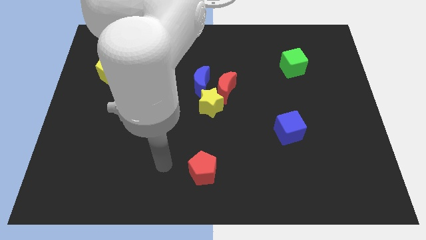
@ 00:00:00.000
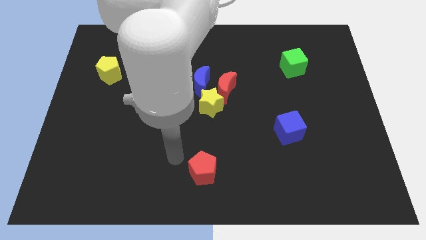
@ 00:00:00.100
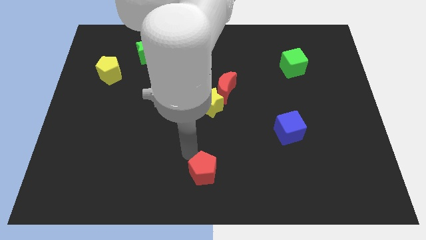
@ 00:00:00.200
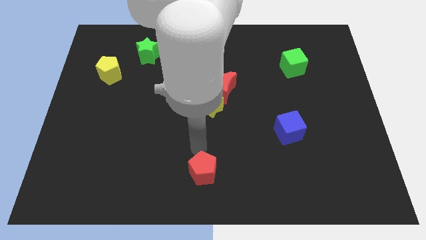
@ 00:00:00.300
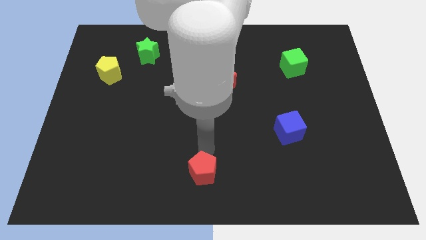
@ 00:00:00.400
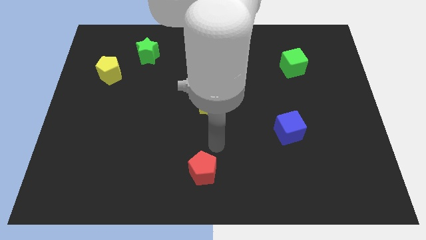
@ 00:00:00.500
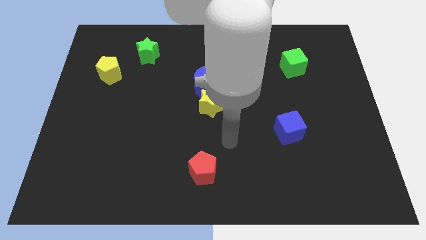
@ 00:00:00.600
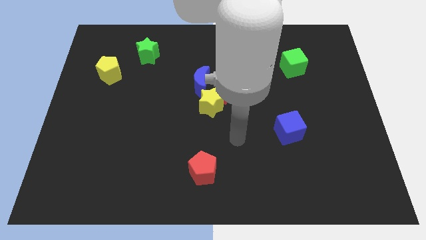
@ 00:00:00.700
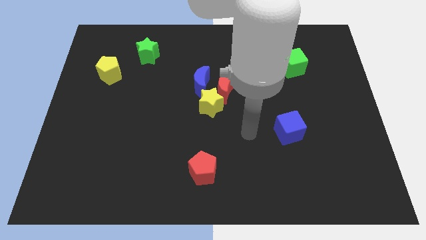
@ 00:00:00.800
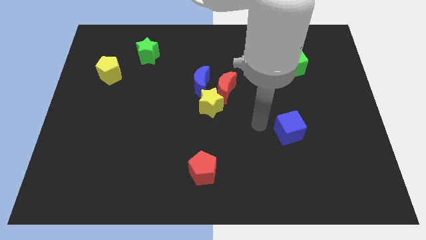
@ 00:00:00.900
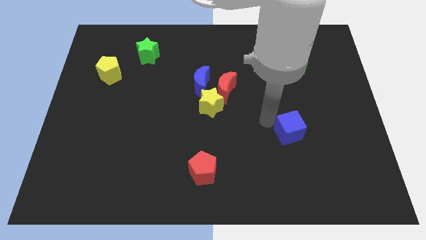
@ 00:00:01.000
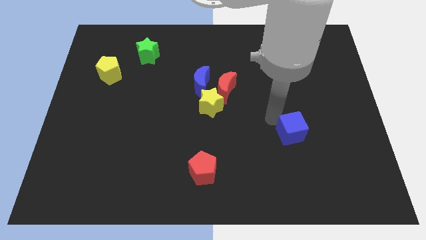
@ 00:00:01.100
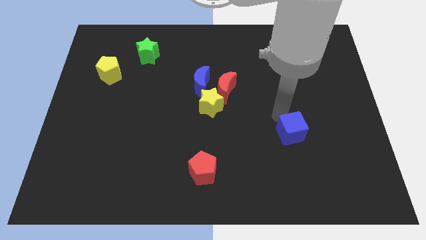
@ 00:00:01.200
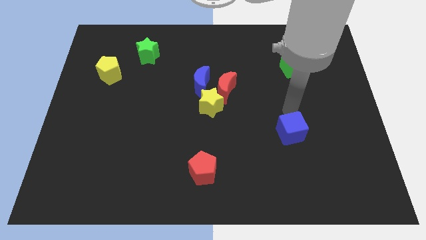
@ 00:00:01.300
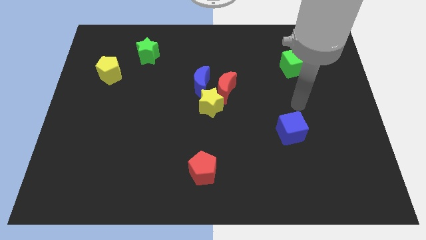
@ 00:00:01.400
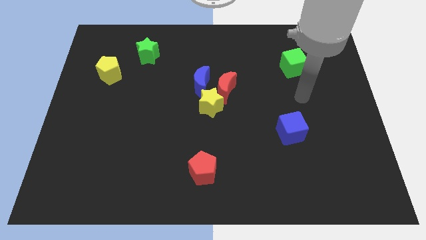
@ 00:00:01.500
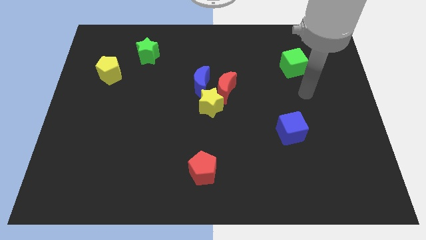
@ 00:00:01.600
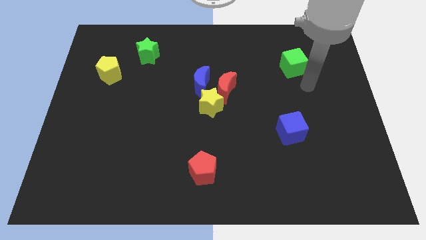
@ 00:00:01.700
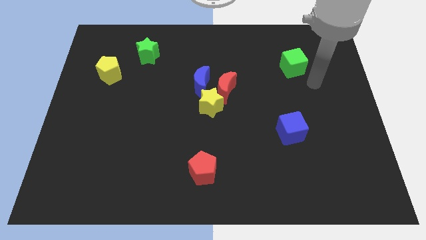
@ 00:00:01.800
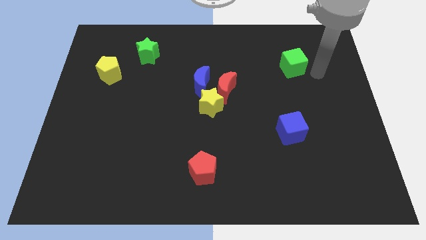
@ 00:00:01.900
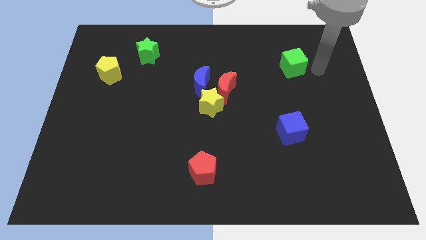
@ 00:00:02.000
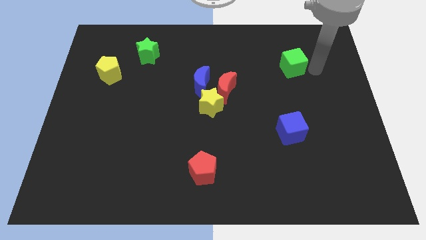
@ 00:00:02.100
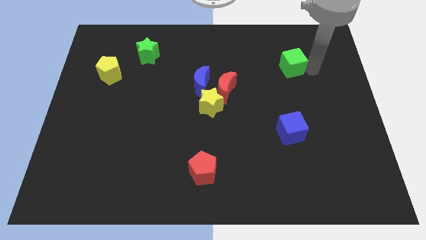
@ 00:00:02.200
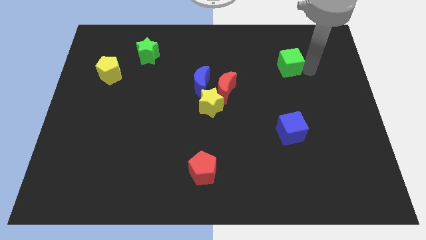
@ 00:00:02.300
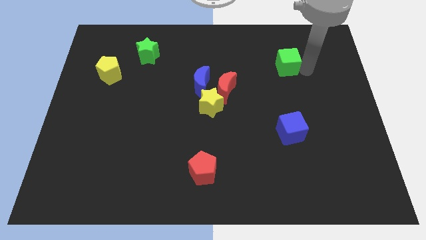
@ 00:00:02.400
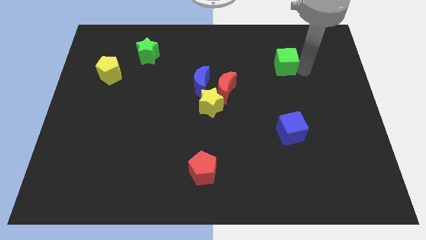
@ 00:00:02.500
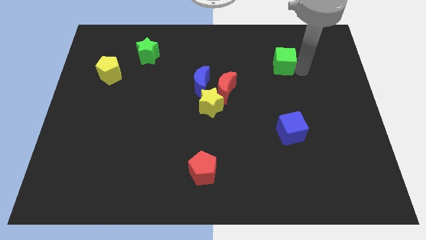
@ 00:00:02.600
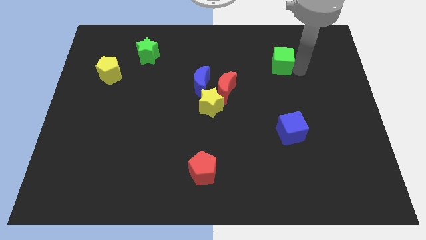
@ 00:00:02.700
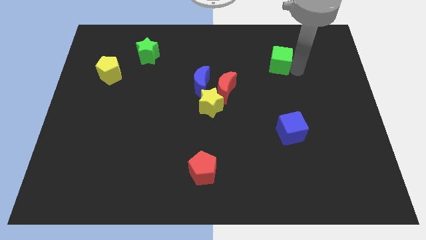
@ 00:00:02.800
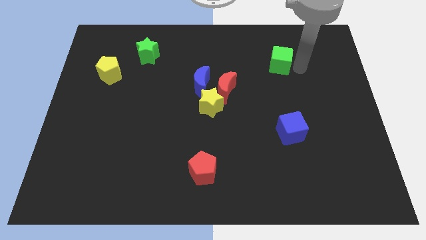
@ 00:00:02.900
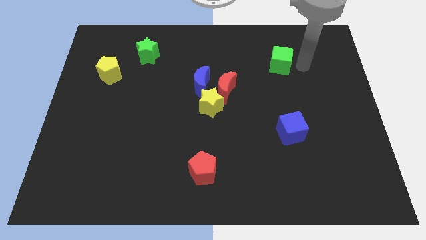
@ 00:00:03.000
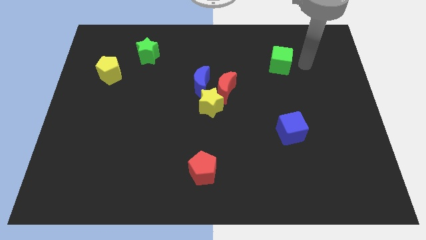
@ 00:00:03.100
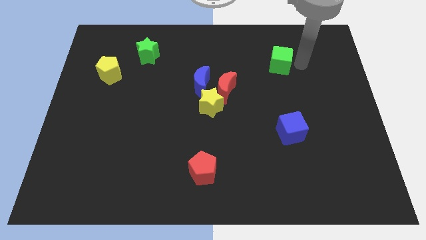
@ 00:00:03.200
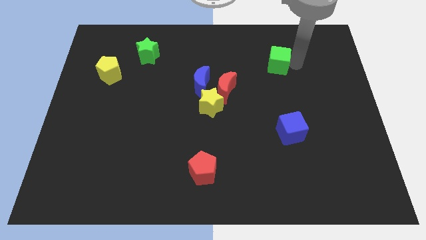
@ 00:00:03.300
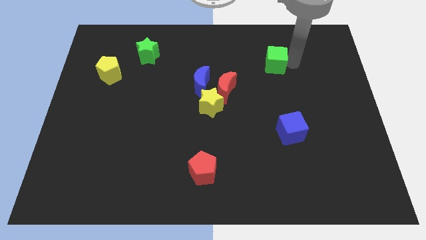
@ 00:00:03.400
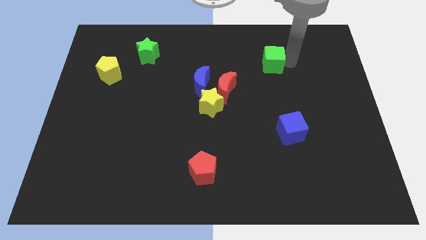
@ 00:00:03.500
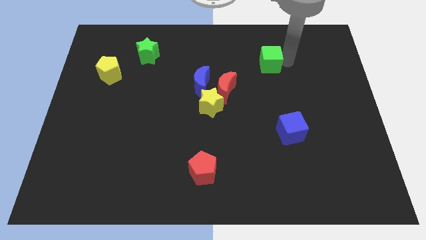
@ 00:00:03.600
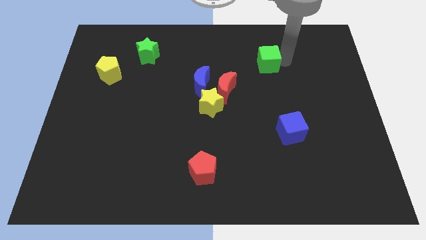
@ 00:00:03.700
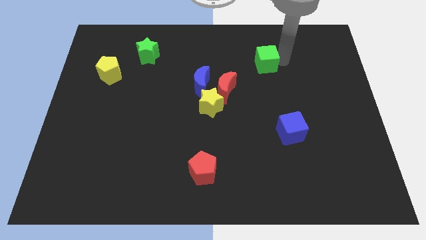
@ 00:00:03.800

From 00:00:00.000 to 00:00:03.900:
push the green cube to the left somewhat

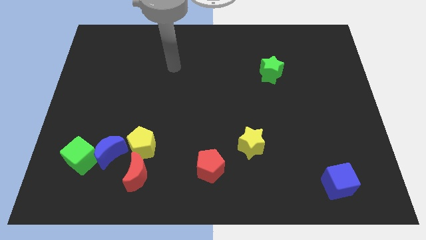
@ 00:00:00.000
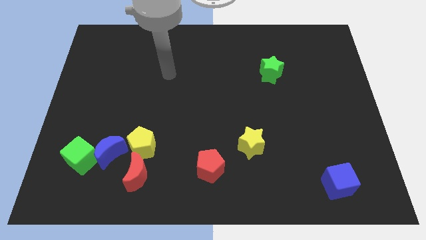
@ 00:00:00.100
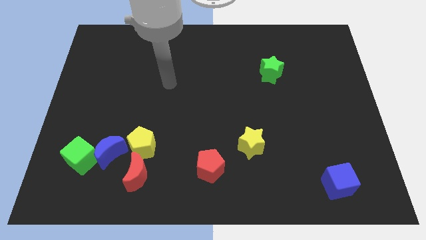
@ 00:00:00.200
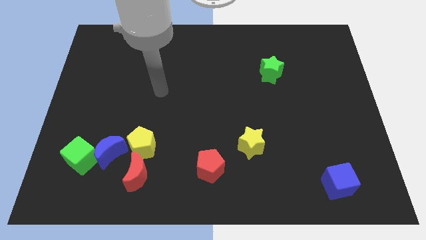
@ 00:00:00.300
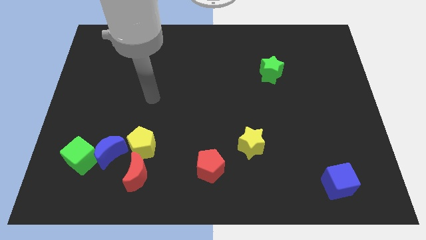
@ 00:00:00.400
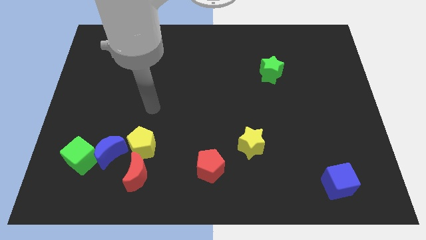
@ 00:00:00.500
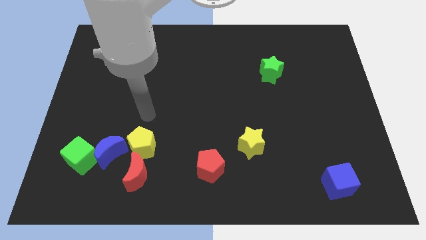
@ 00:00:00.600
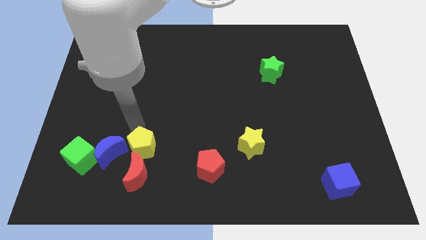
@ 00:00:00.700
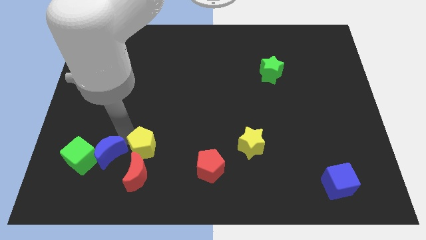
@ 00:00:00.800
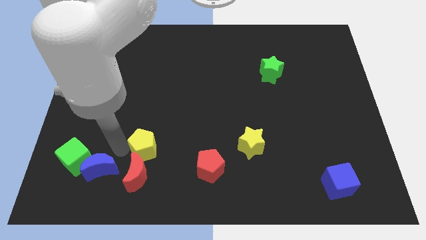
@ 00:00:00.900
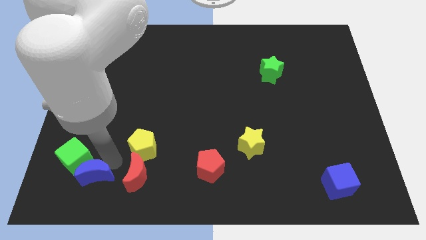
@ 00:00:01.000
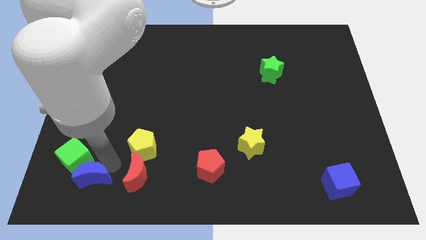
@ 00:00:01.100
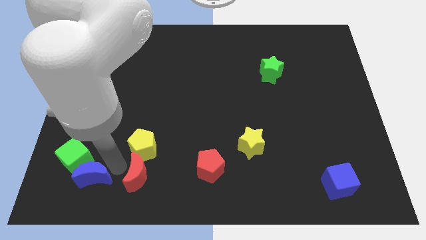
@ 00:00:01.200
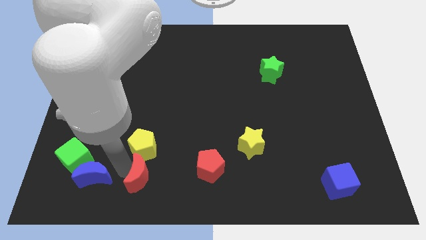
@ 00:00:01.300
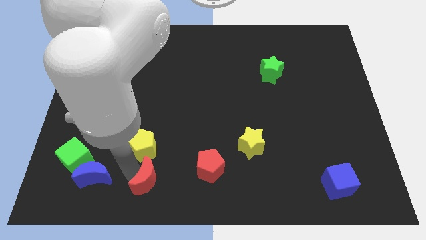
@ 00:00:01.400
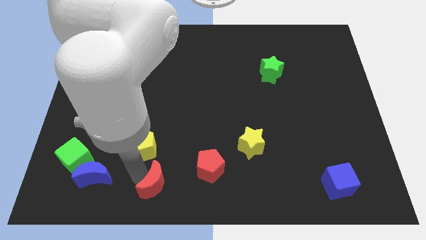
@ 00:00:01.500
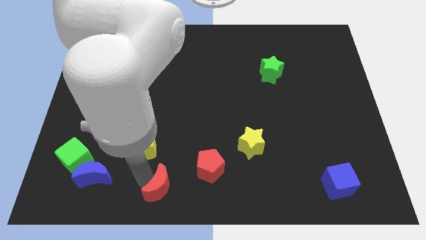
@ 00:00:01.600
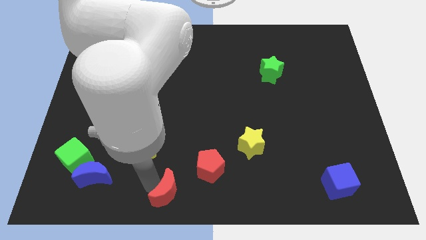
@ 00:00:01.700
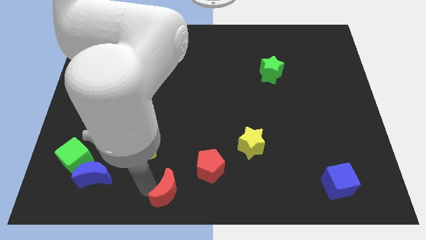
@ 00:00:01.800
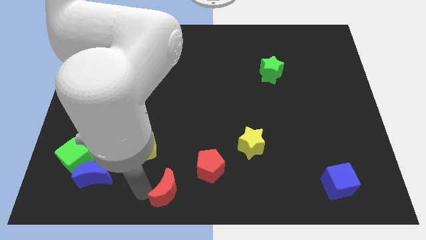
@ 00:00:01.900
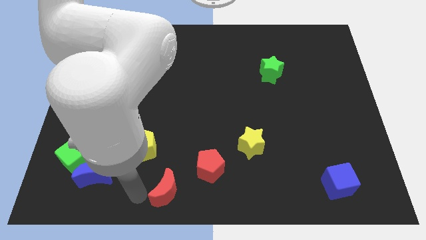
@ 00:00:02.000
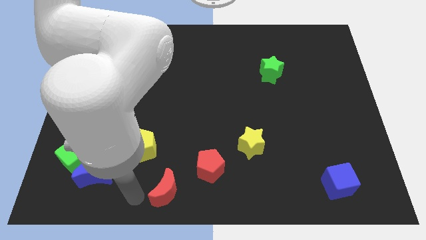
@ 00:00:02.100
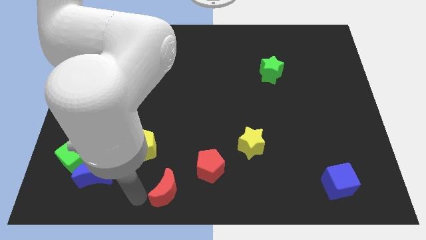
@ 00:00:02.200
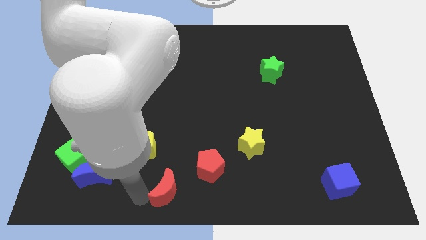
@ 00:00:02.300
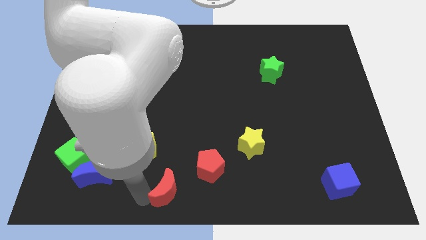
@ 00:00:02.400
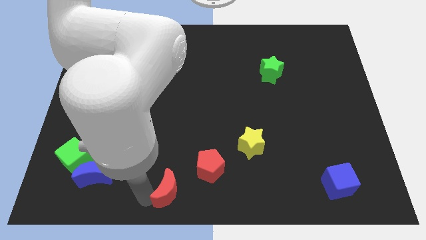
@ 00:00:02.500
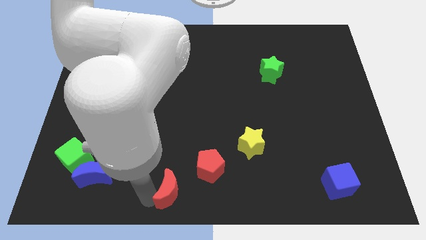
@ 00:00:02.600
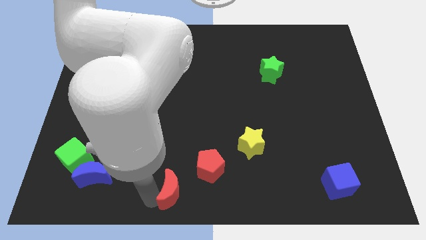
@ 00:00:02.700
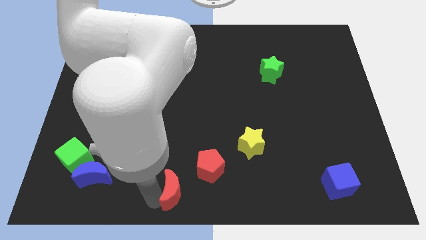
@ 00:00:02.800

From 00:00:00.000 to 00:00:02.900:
slightly push the red moon to the right

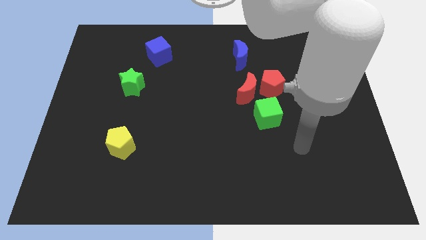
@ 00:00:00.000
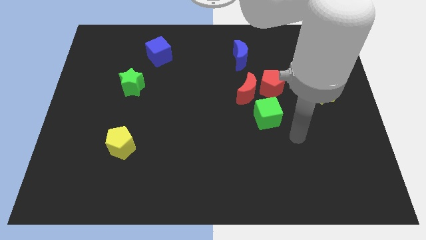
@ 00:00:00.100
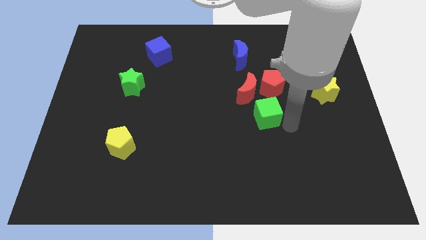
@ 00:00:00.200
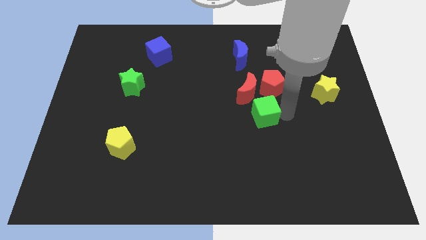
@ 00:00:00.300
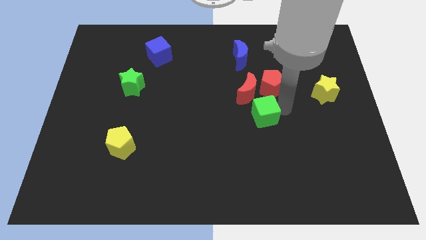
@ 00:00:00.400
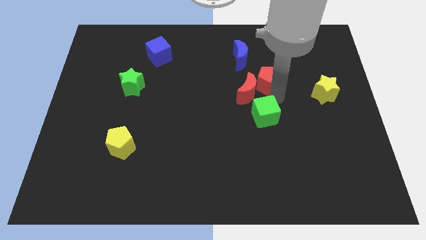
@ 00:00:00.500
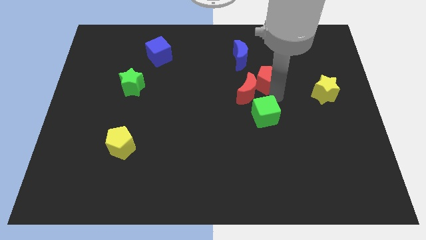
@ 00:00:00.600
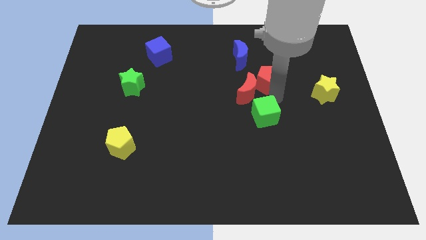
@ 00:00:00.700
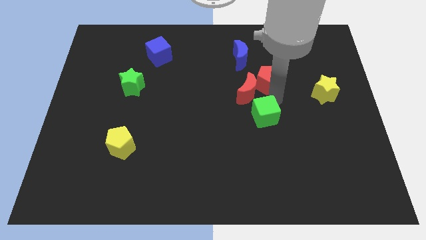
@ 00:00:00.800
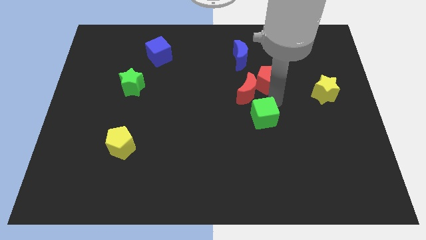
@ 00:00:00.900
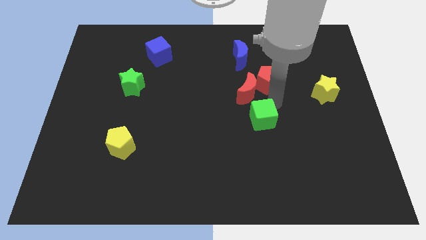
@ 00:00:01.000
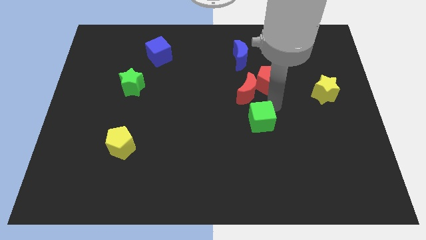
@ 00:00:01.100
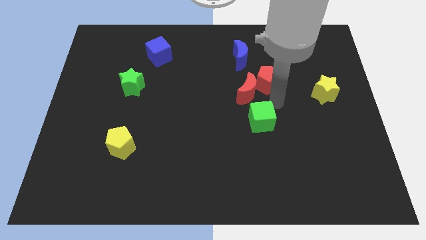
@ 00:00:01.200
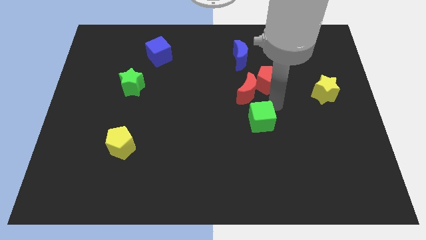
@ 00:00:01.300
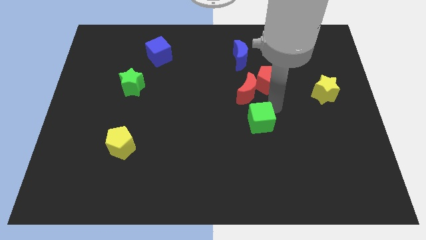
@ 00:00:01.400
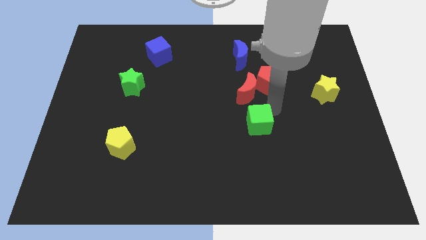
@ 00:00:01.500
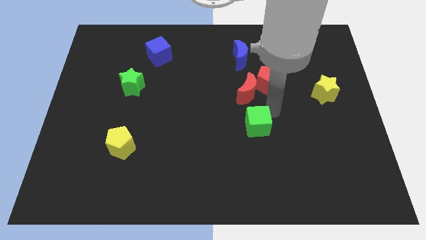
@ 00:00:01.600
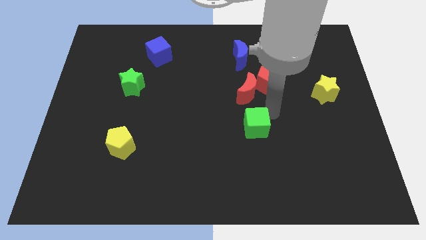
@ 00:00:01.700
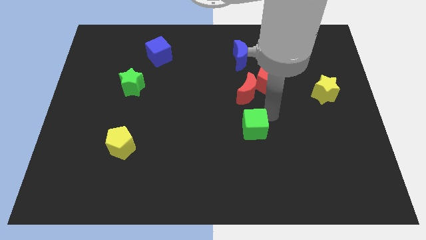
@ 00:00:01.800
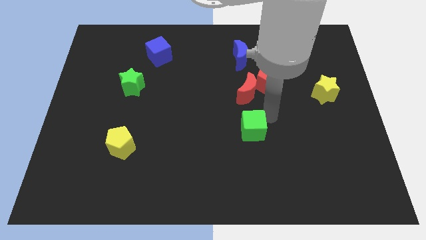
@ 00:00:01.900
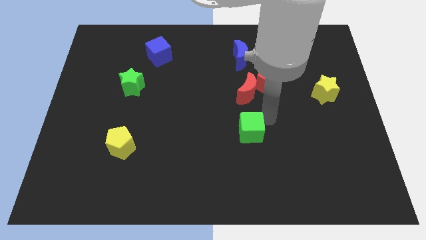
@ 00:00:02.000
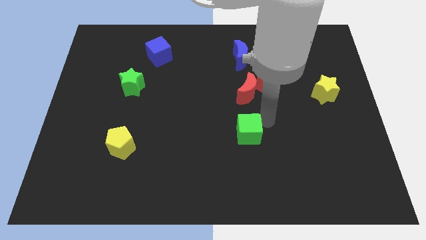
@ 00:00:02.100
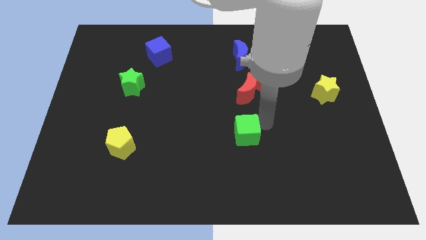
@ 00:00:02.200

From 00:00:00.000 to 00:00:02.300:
push the green cube a bit downwards and then to the left
